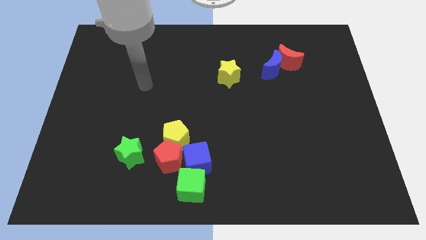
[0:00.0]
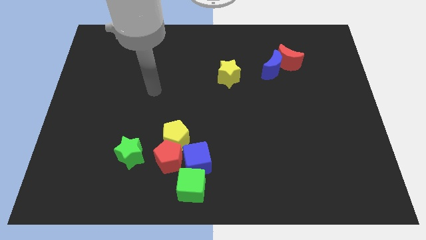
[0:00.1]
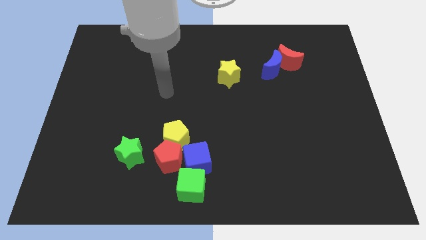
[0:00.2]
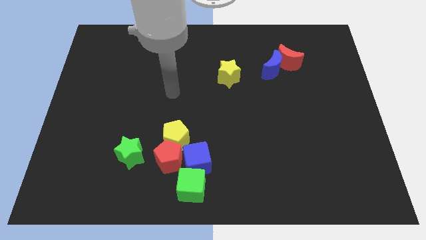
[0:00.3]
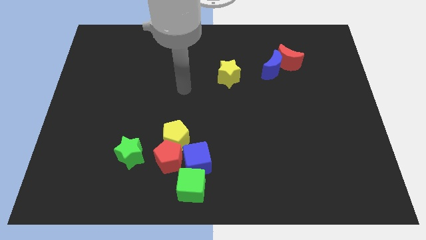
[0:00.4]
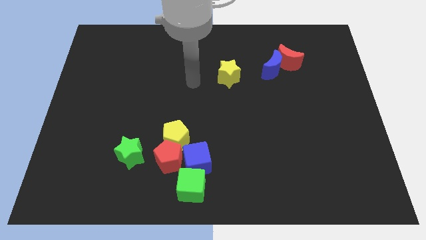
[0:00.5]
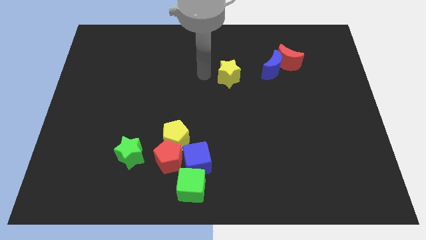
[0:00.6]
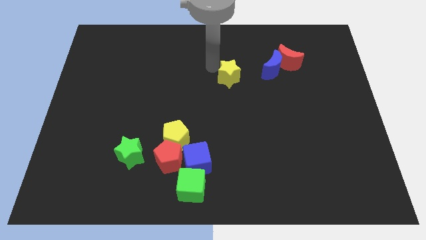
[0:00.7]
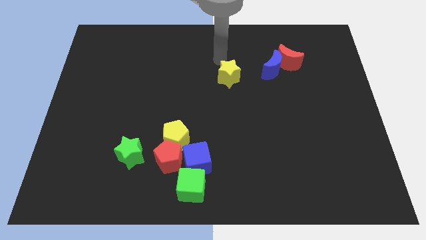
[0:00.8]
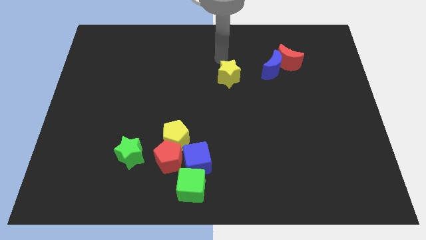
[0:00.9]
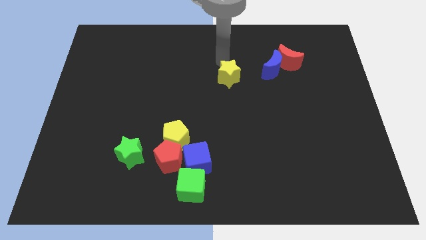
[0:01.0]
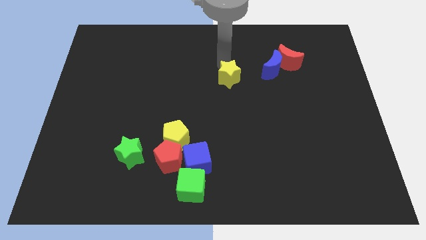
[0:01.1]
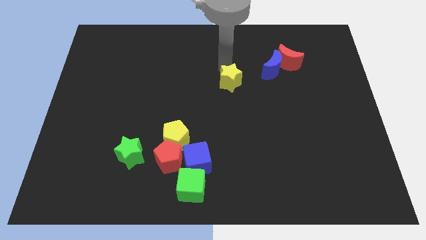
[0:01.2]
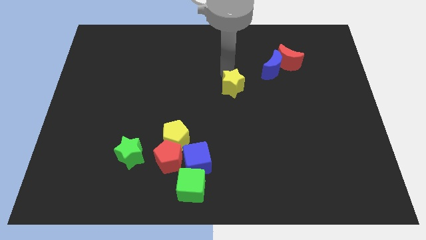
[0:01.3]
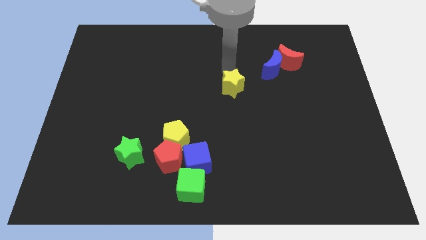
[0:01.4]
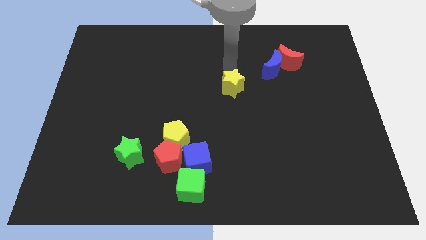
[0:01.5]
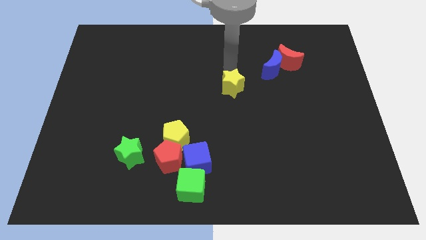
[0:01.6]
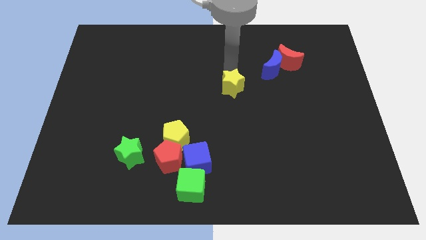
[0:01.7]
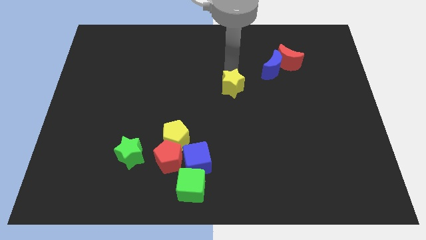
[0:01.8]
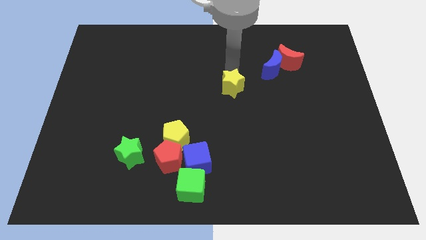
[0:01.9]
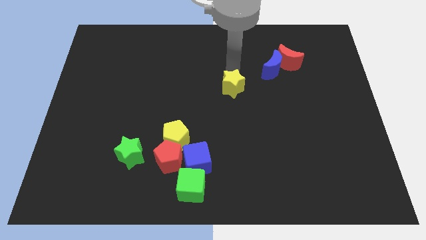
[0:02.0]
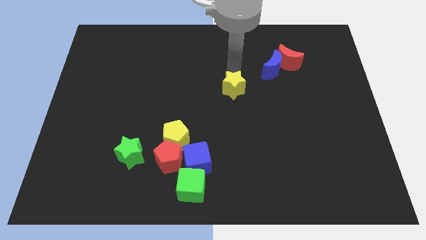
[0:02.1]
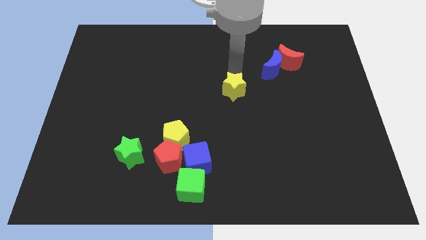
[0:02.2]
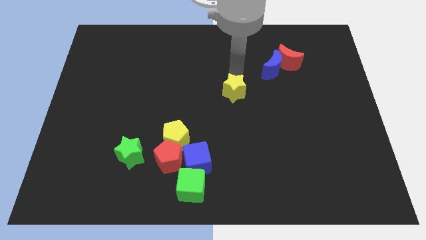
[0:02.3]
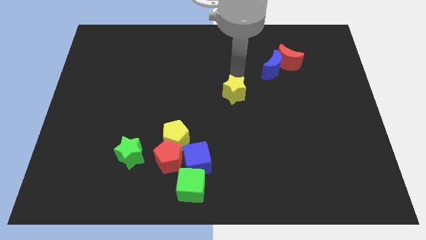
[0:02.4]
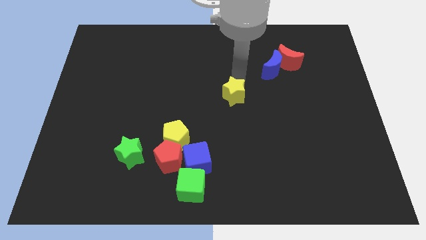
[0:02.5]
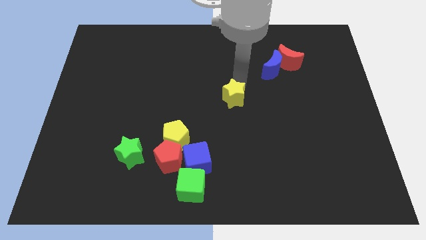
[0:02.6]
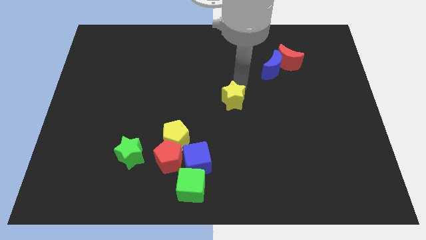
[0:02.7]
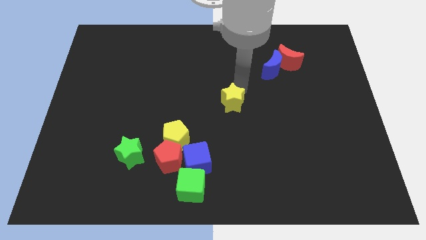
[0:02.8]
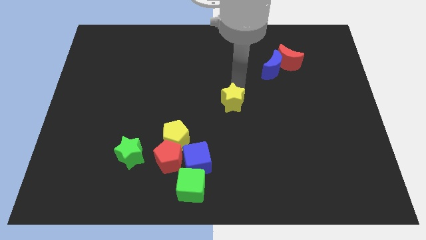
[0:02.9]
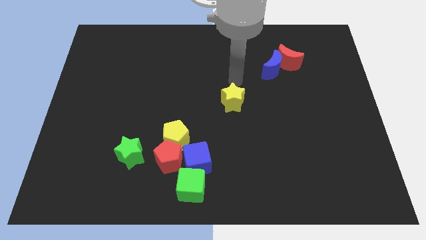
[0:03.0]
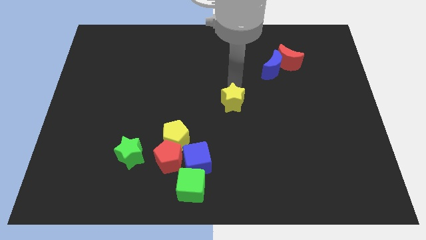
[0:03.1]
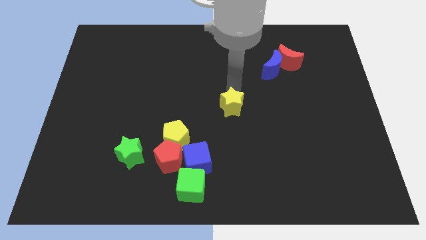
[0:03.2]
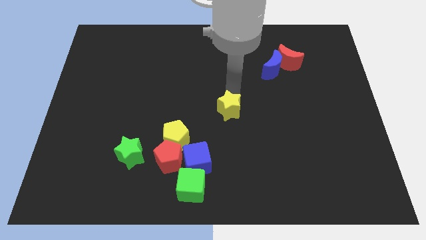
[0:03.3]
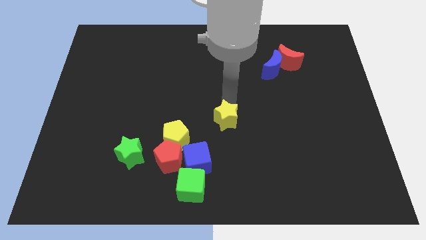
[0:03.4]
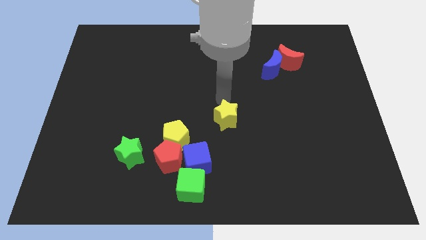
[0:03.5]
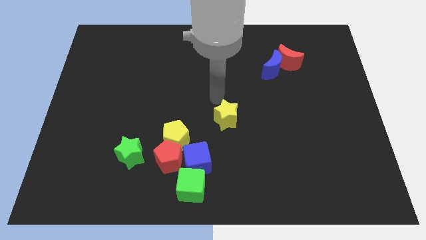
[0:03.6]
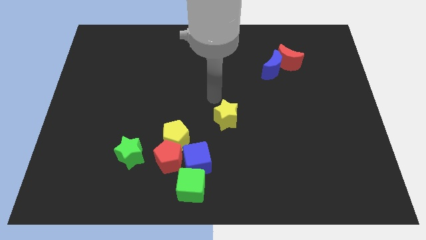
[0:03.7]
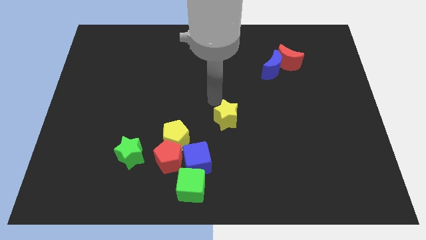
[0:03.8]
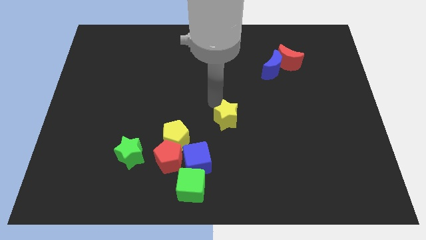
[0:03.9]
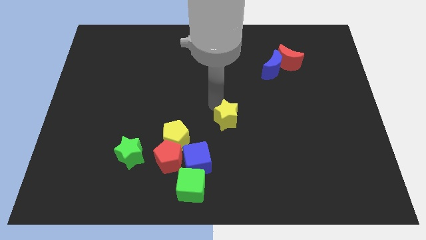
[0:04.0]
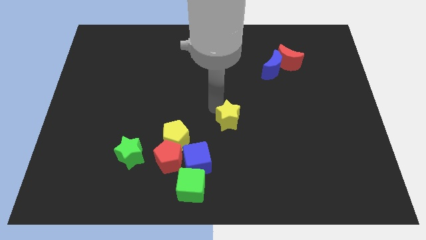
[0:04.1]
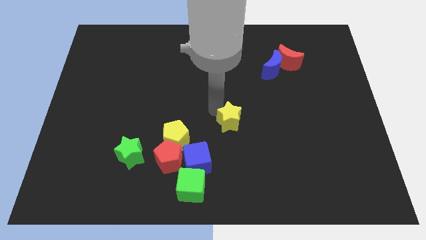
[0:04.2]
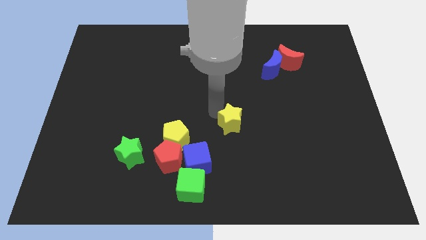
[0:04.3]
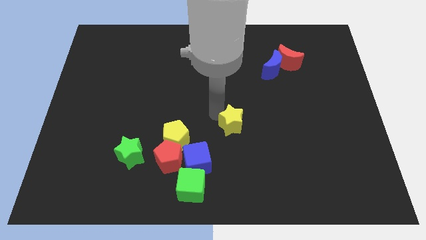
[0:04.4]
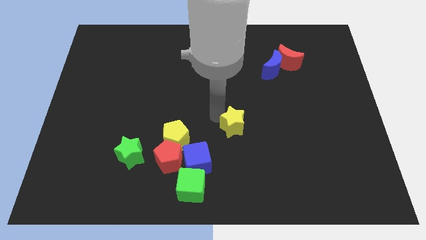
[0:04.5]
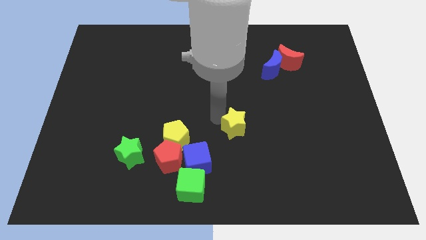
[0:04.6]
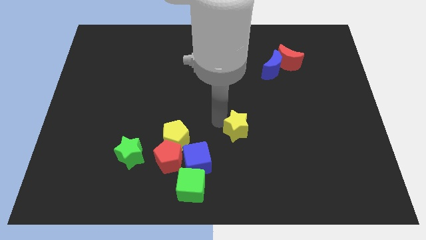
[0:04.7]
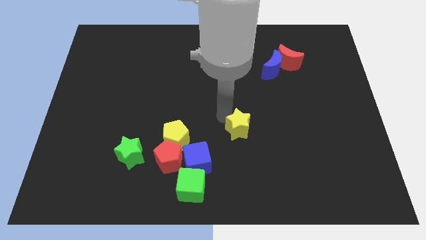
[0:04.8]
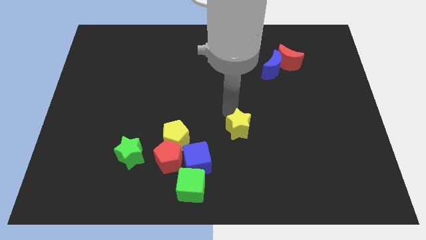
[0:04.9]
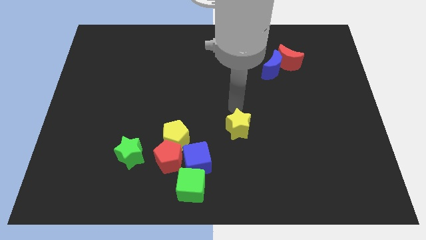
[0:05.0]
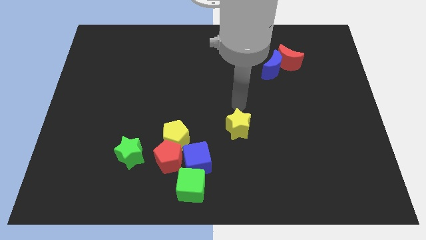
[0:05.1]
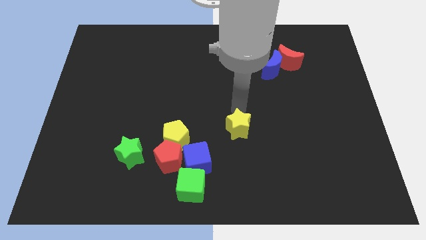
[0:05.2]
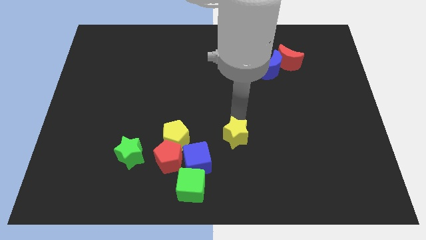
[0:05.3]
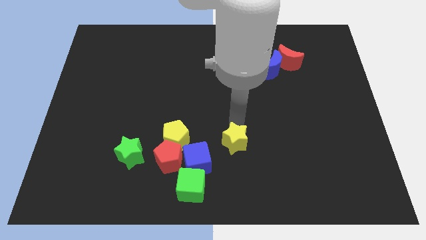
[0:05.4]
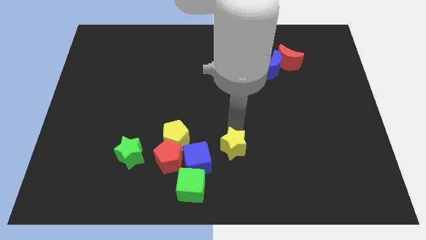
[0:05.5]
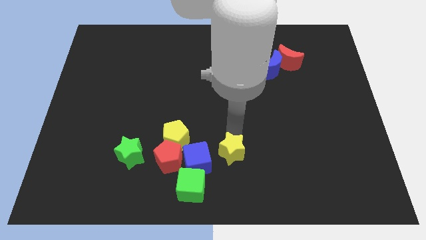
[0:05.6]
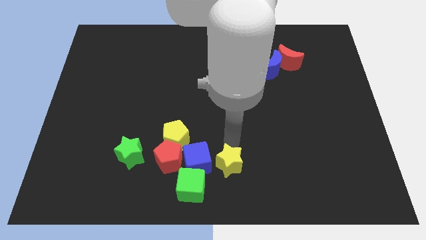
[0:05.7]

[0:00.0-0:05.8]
move the yellow star to the bottom side

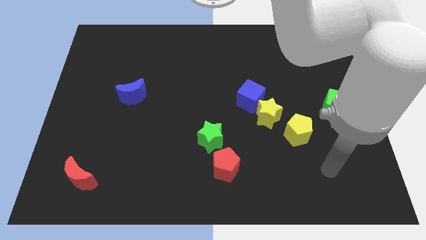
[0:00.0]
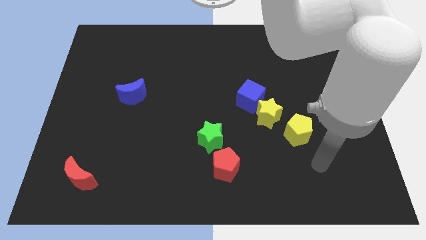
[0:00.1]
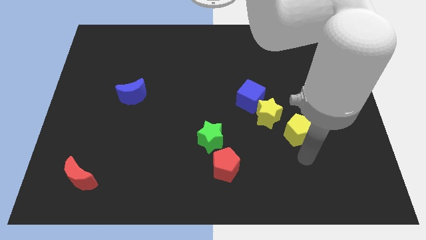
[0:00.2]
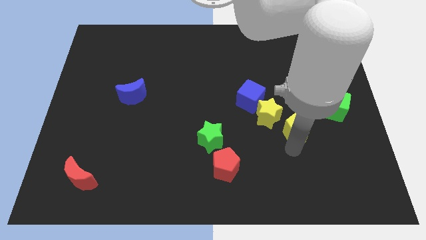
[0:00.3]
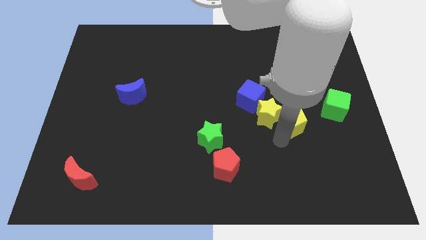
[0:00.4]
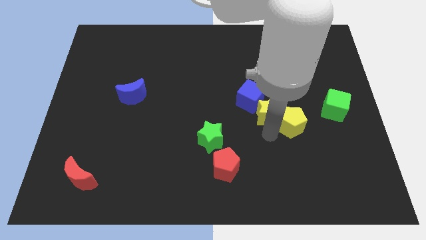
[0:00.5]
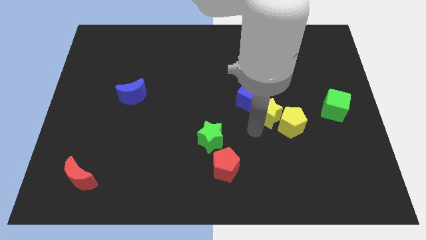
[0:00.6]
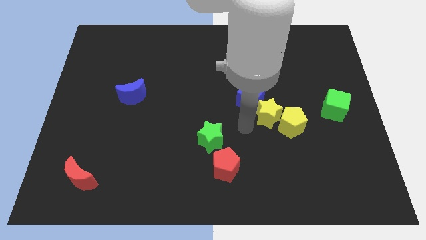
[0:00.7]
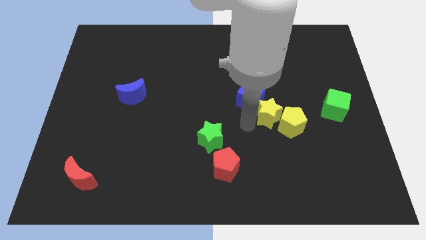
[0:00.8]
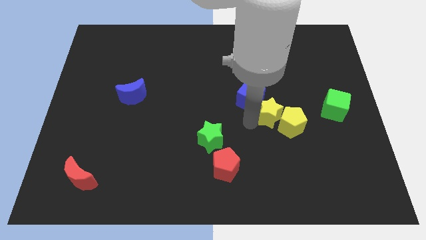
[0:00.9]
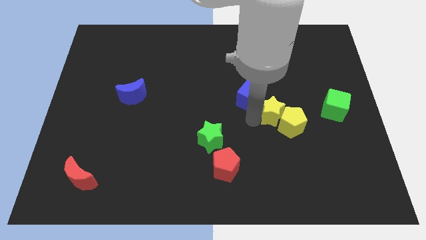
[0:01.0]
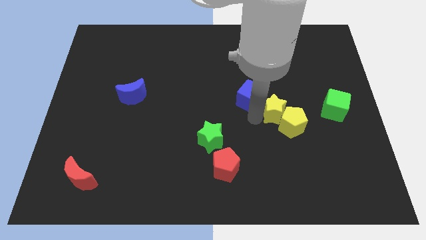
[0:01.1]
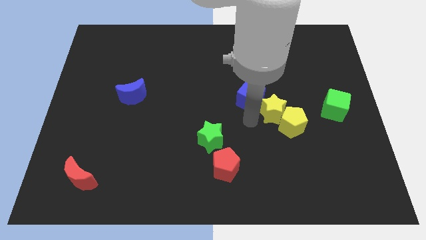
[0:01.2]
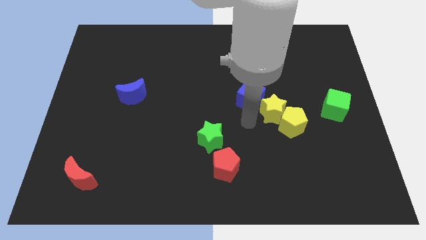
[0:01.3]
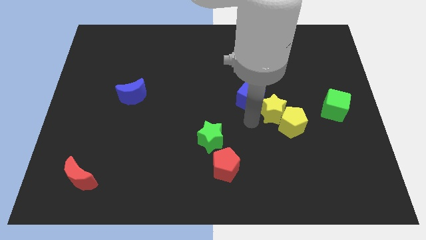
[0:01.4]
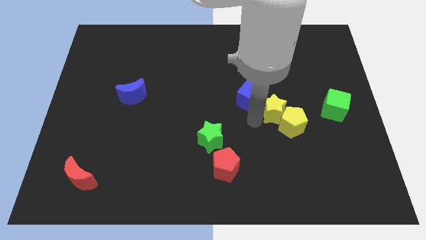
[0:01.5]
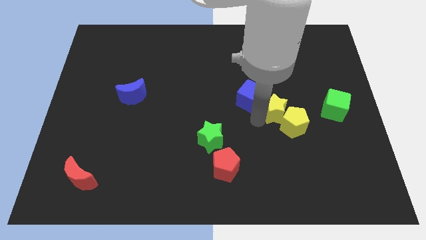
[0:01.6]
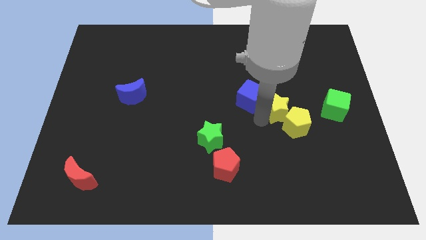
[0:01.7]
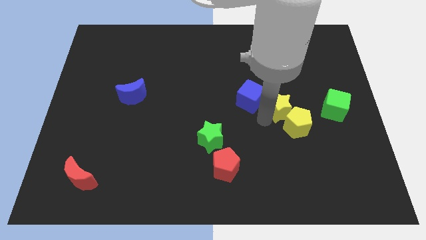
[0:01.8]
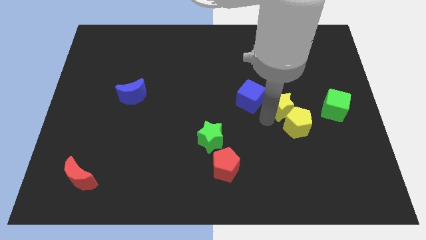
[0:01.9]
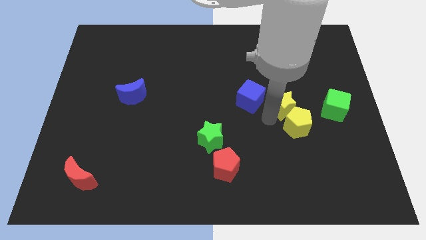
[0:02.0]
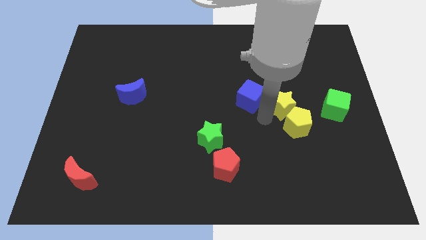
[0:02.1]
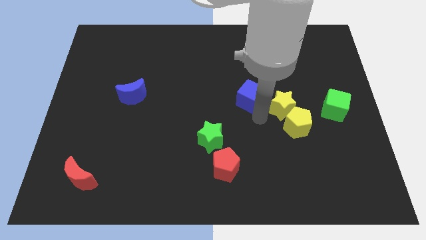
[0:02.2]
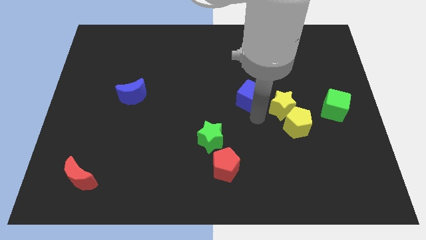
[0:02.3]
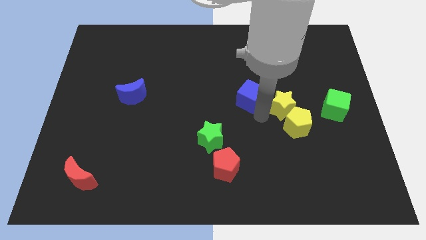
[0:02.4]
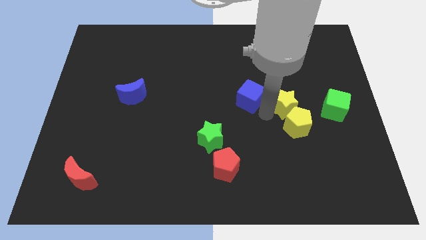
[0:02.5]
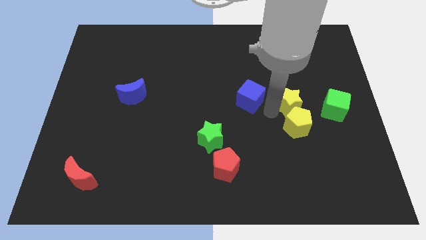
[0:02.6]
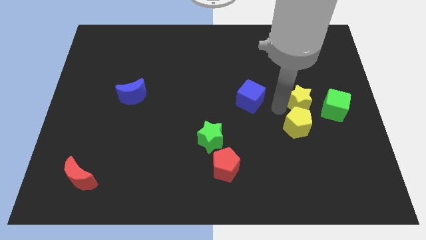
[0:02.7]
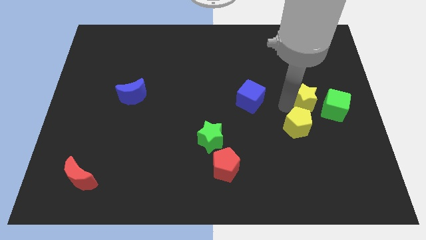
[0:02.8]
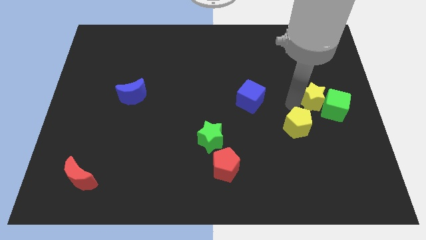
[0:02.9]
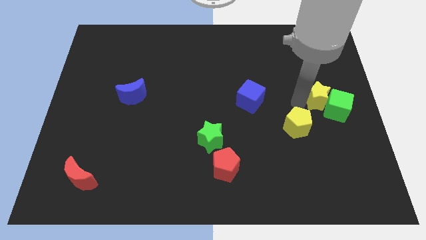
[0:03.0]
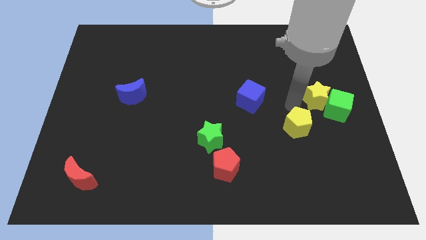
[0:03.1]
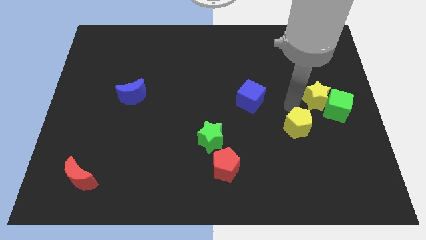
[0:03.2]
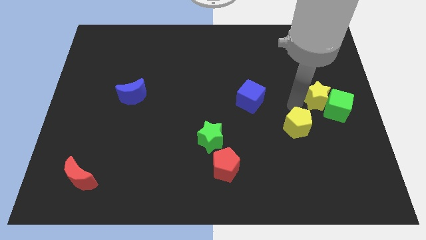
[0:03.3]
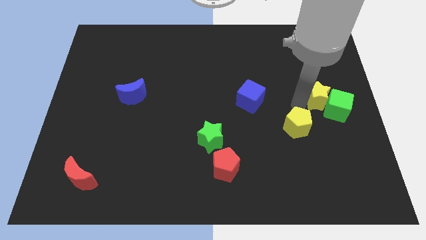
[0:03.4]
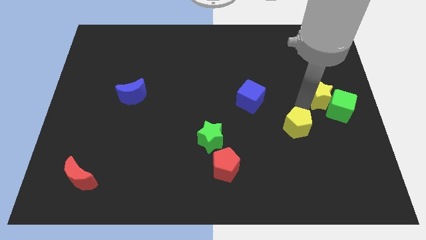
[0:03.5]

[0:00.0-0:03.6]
slide the yellow star to the right side of the board
